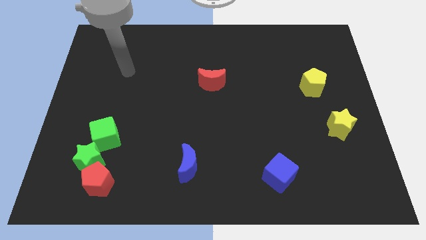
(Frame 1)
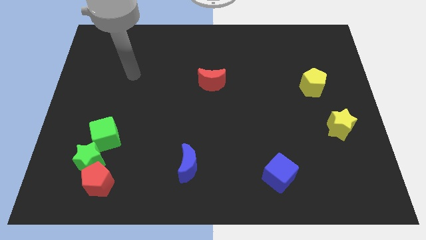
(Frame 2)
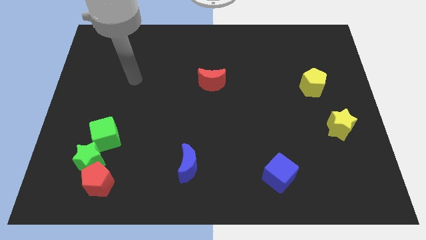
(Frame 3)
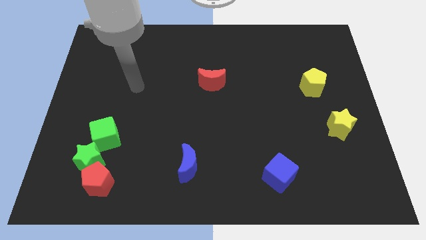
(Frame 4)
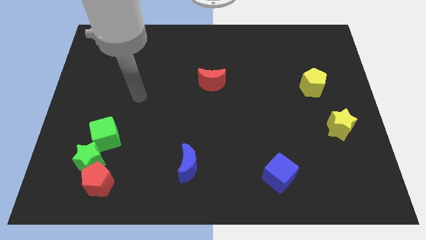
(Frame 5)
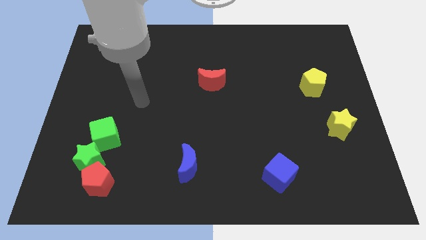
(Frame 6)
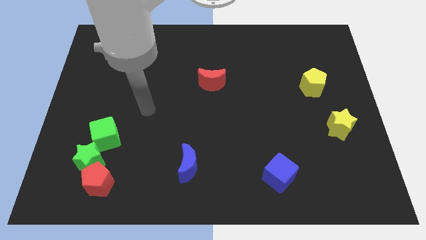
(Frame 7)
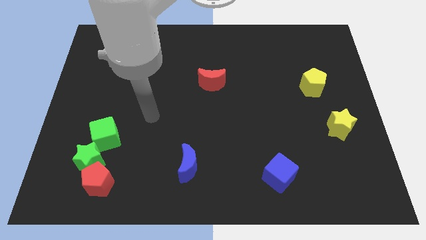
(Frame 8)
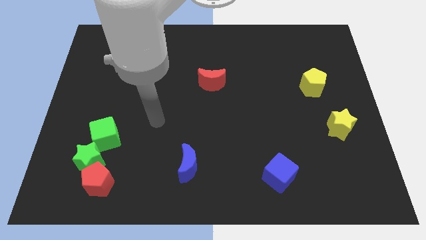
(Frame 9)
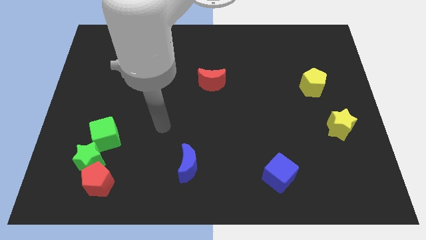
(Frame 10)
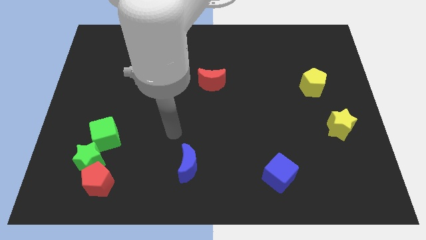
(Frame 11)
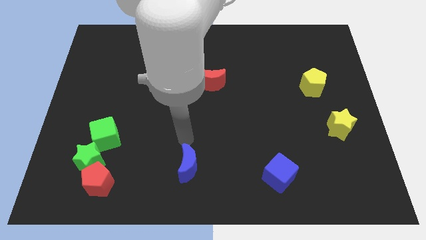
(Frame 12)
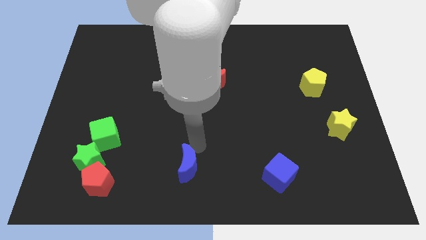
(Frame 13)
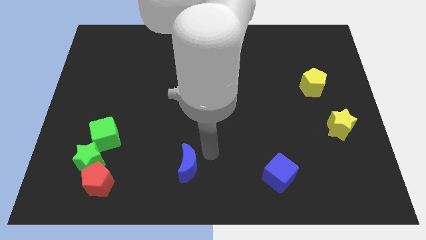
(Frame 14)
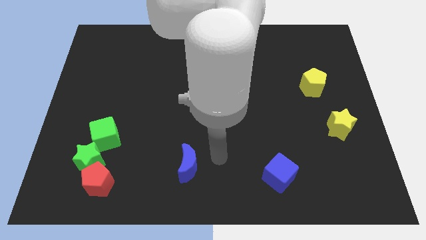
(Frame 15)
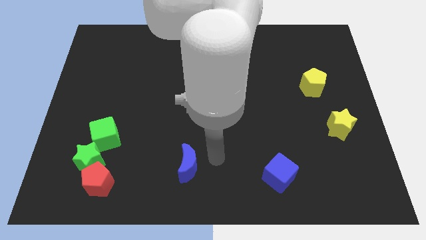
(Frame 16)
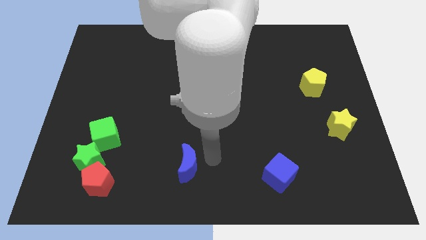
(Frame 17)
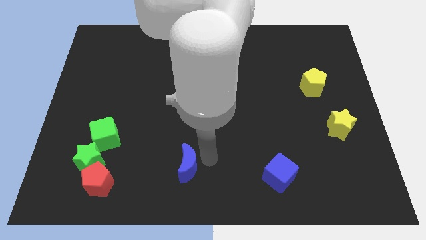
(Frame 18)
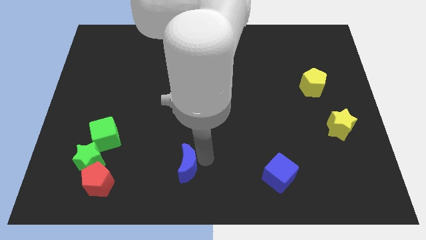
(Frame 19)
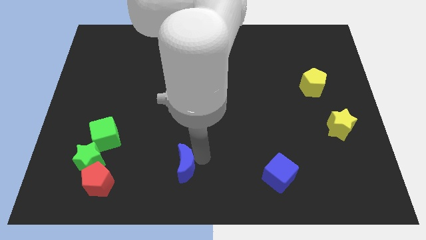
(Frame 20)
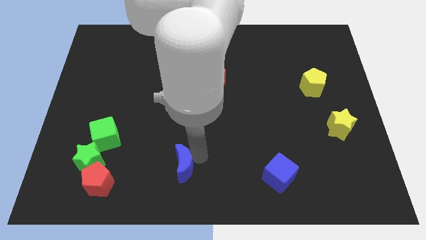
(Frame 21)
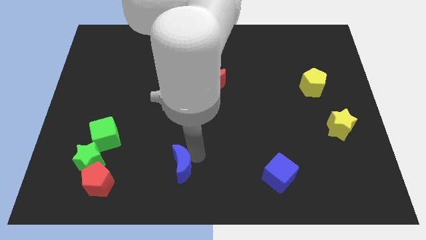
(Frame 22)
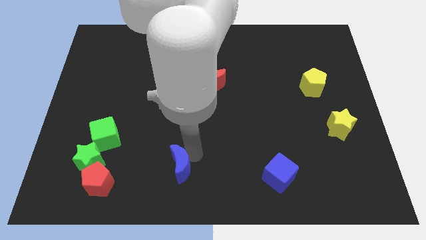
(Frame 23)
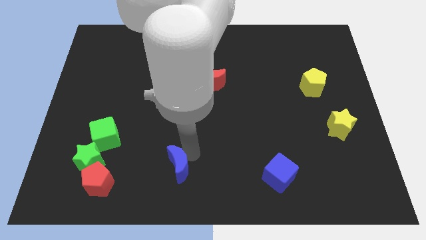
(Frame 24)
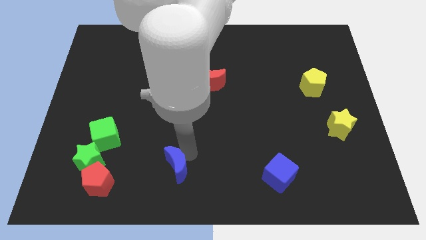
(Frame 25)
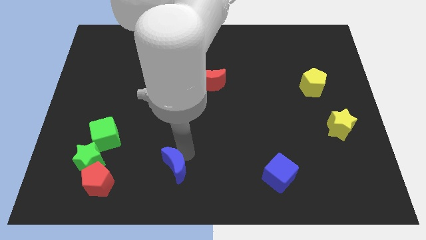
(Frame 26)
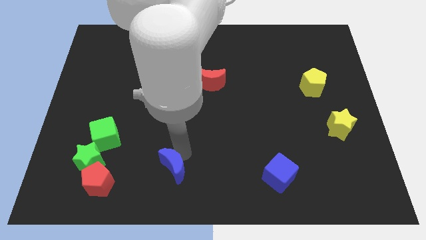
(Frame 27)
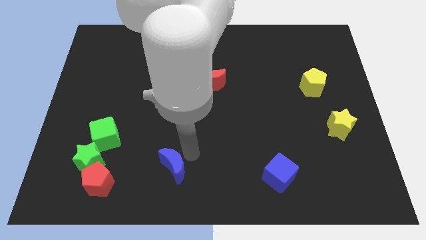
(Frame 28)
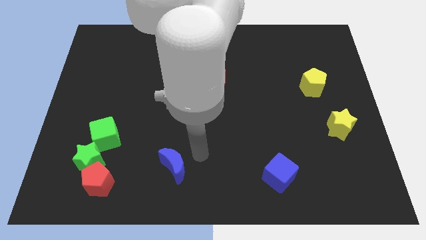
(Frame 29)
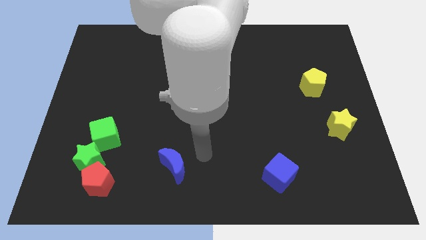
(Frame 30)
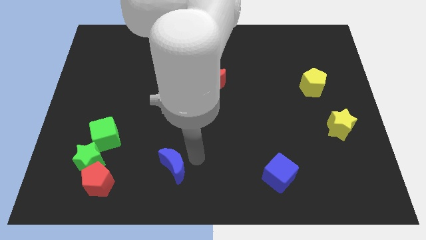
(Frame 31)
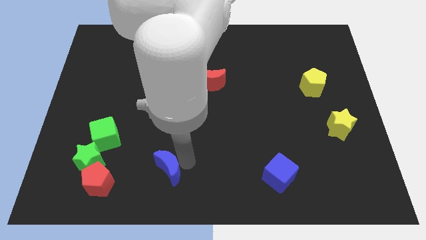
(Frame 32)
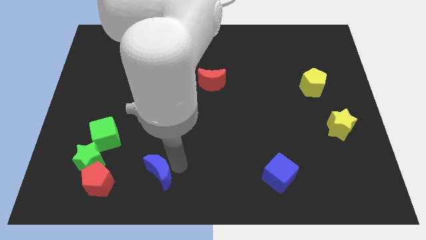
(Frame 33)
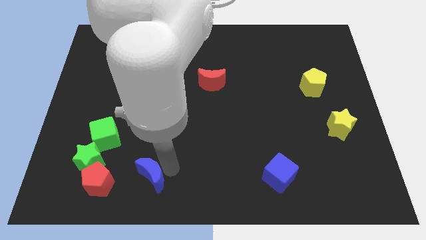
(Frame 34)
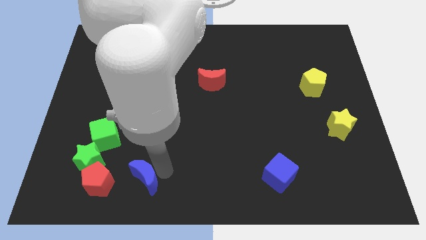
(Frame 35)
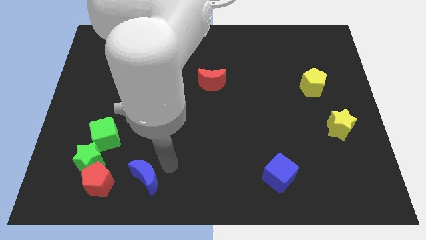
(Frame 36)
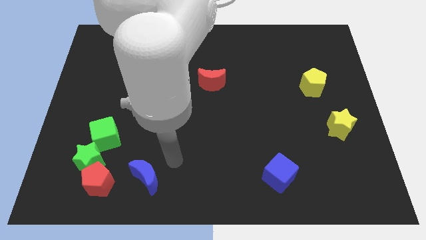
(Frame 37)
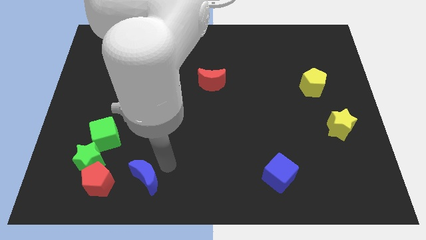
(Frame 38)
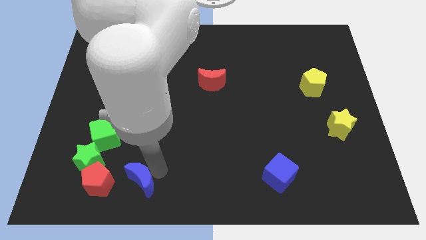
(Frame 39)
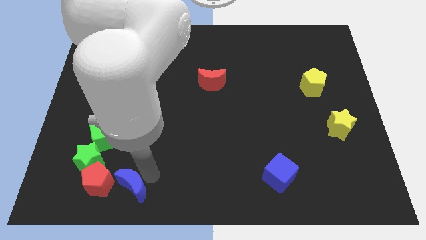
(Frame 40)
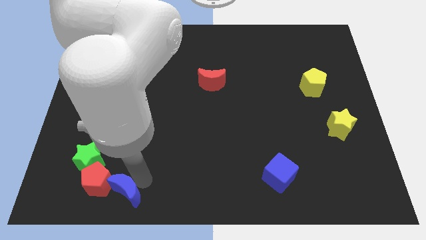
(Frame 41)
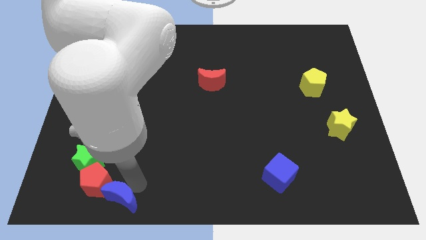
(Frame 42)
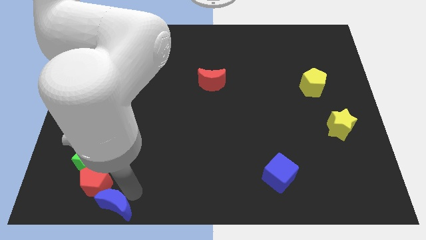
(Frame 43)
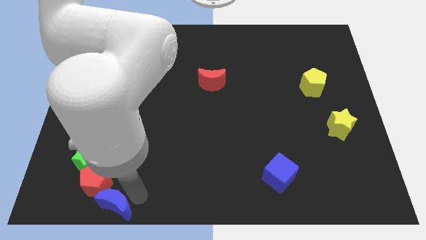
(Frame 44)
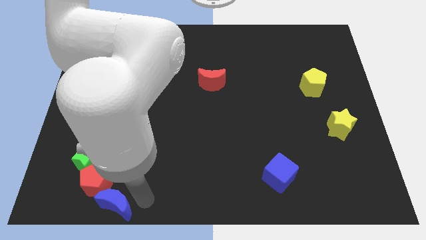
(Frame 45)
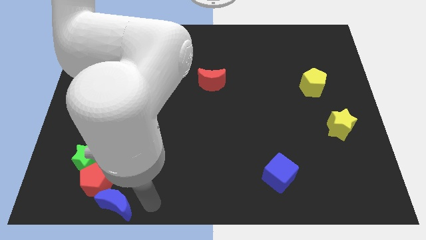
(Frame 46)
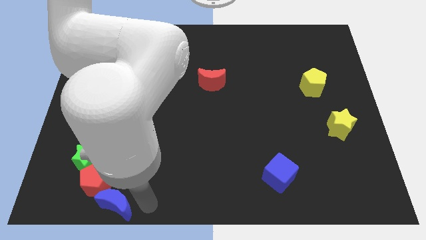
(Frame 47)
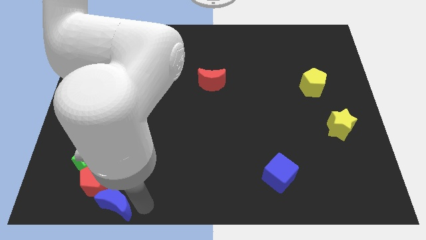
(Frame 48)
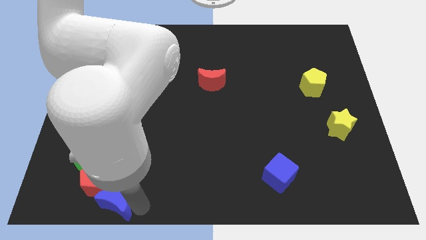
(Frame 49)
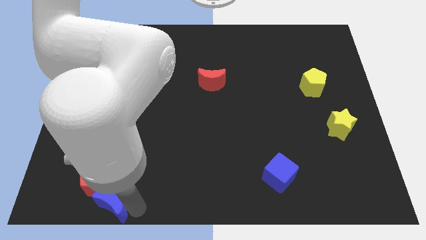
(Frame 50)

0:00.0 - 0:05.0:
move the blue moon next to the red pentagon

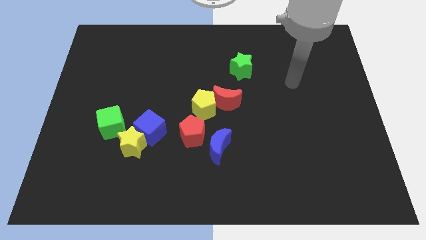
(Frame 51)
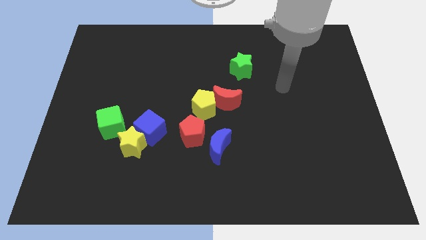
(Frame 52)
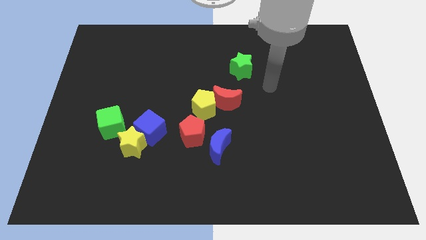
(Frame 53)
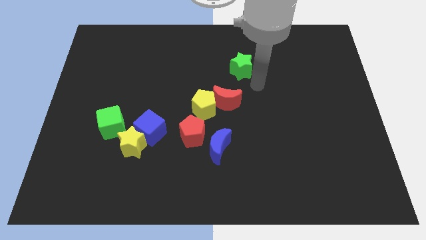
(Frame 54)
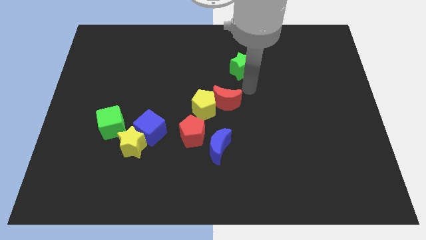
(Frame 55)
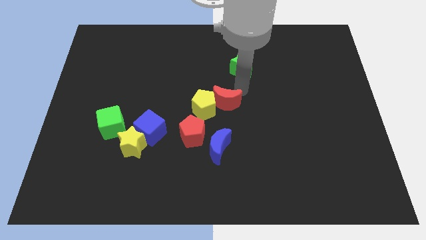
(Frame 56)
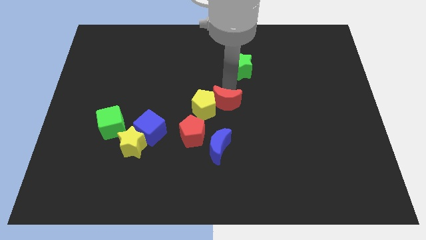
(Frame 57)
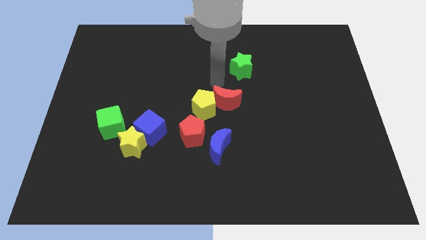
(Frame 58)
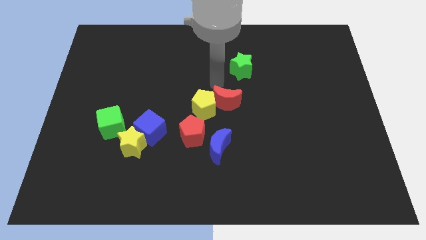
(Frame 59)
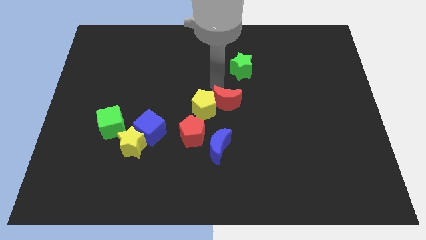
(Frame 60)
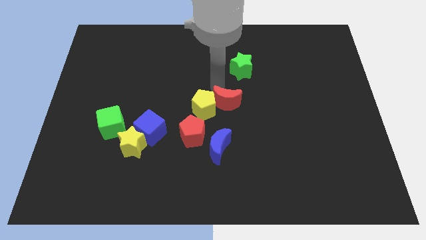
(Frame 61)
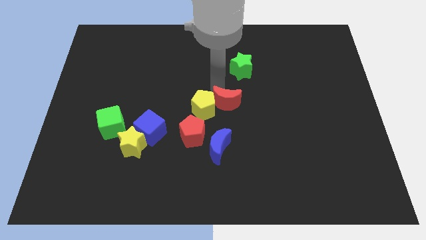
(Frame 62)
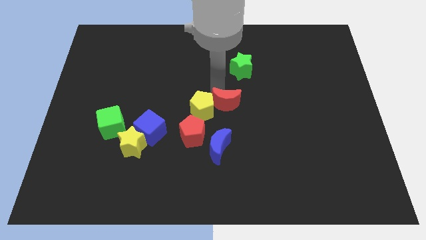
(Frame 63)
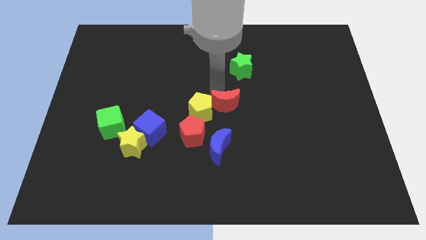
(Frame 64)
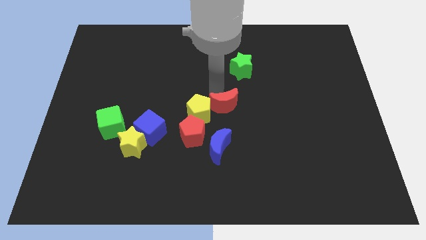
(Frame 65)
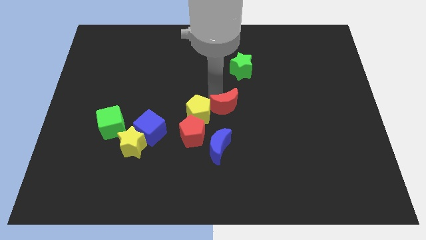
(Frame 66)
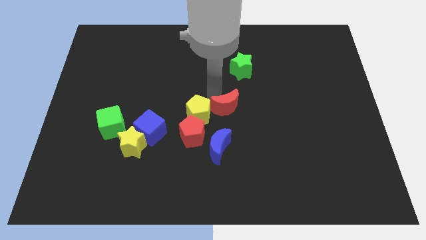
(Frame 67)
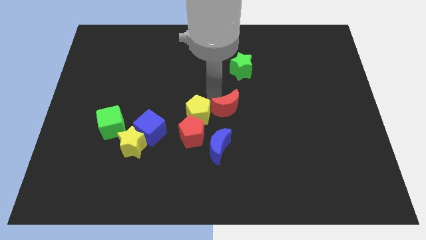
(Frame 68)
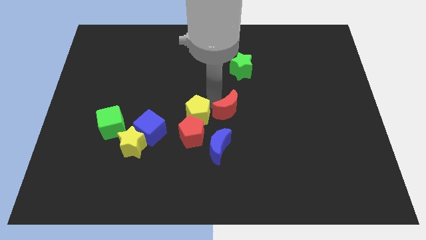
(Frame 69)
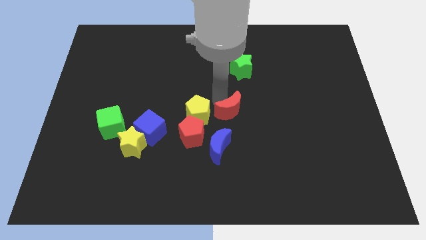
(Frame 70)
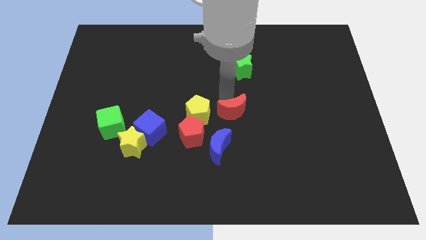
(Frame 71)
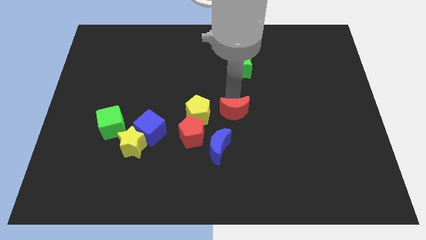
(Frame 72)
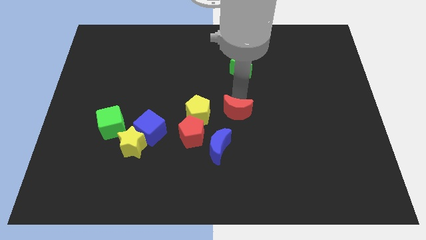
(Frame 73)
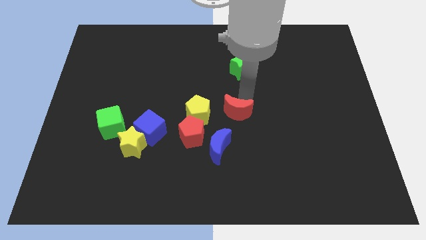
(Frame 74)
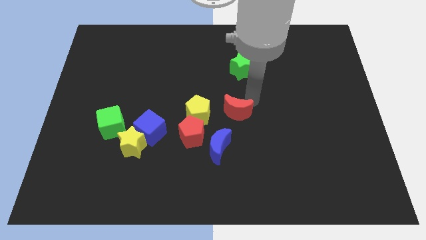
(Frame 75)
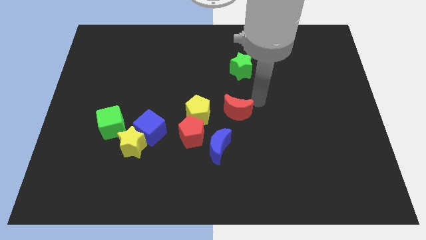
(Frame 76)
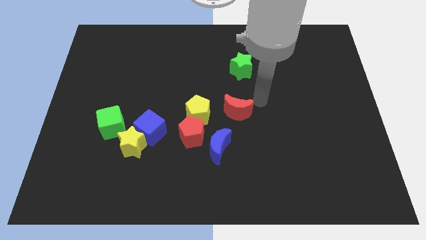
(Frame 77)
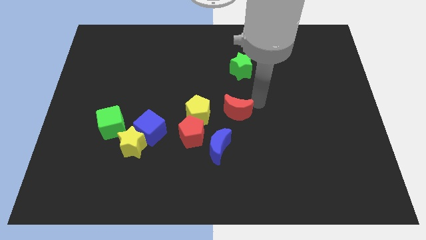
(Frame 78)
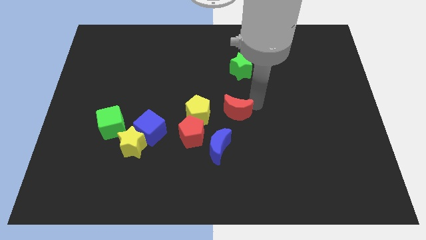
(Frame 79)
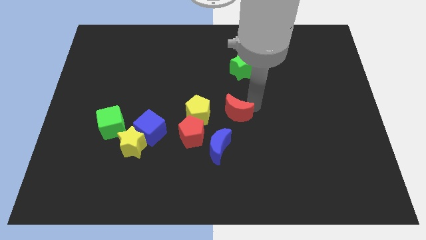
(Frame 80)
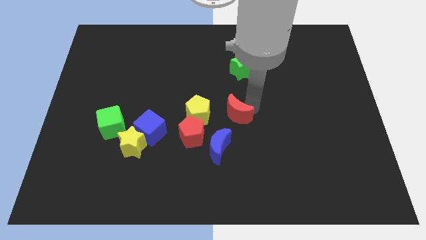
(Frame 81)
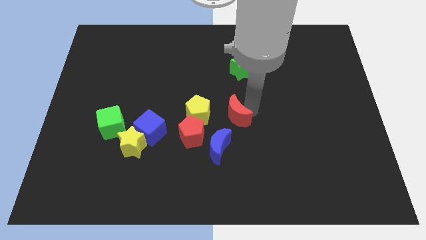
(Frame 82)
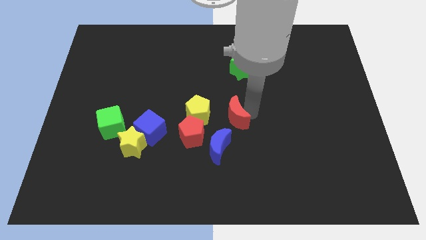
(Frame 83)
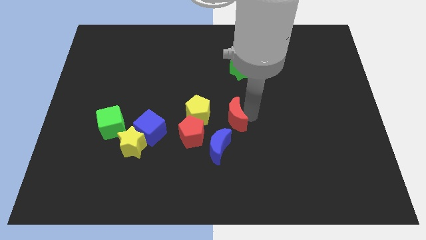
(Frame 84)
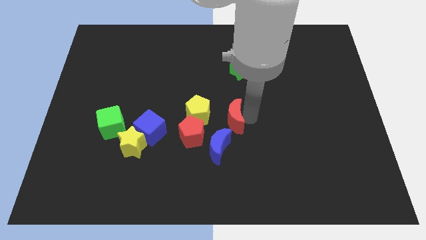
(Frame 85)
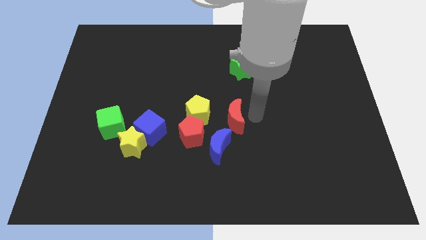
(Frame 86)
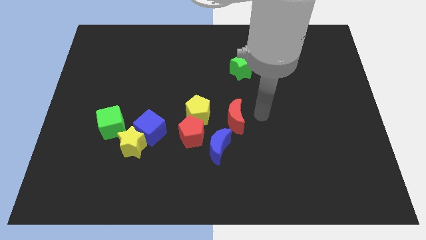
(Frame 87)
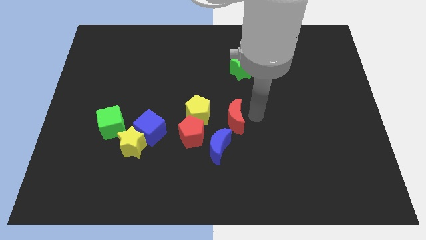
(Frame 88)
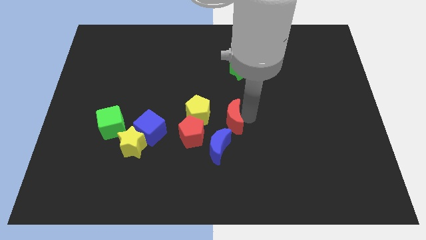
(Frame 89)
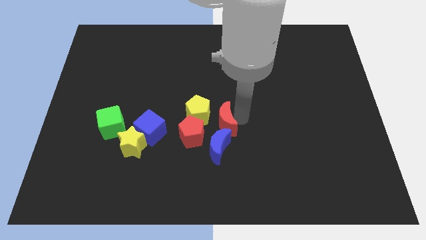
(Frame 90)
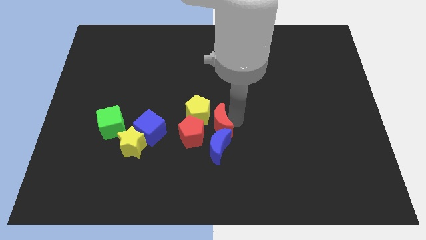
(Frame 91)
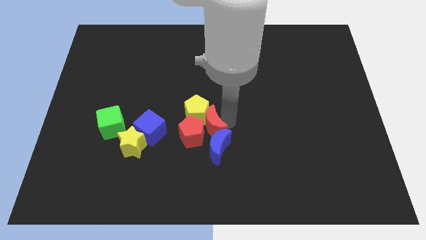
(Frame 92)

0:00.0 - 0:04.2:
move the red moon towards the red pentagon
